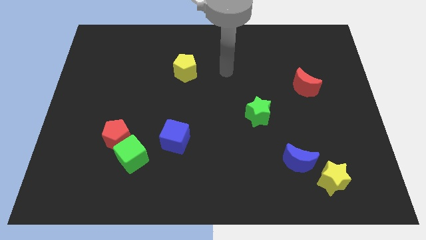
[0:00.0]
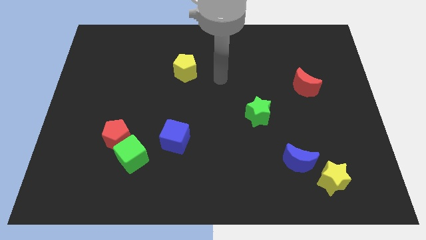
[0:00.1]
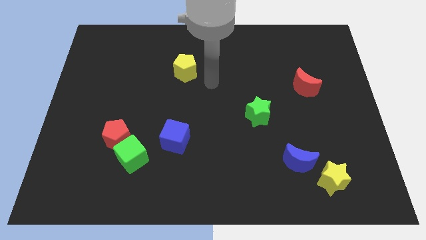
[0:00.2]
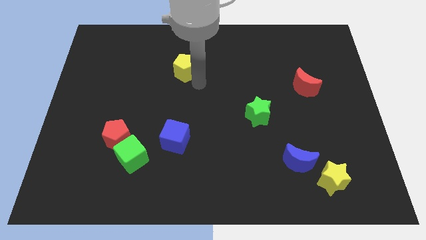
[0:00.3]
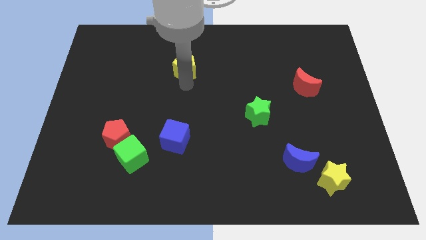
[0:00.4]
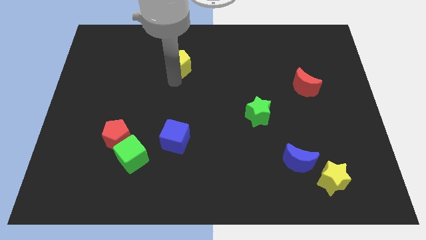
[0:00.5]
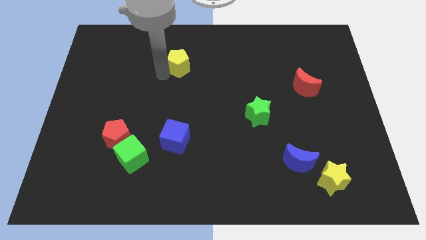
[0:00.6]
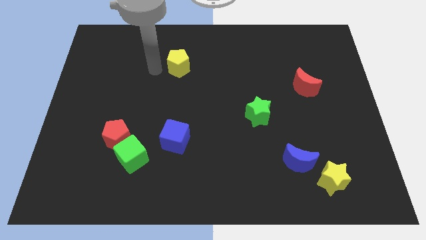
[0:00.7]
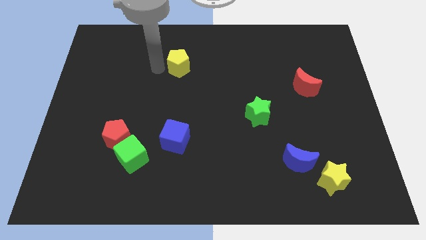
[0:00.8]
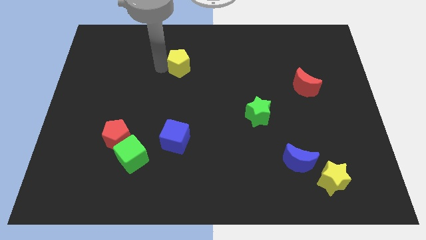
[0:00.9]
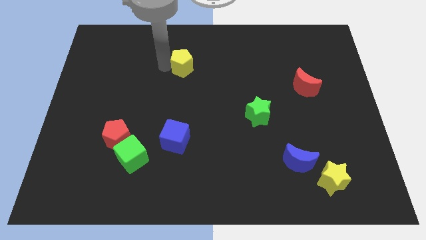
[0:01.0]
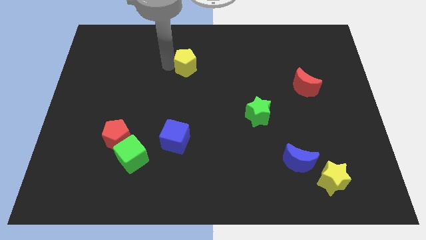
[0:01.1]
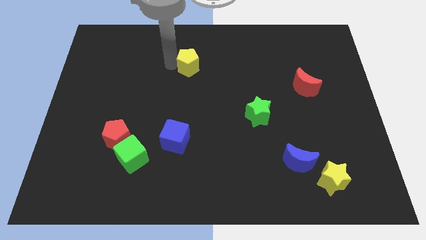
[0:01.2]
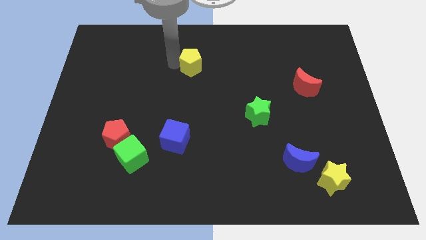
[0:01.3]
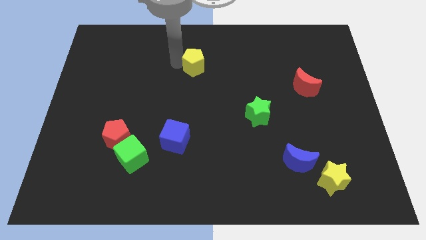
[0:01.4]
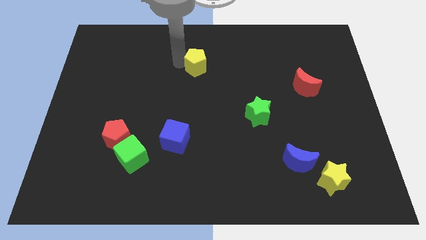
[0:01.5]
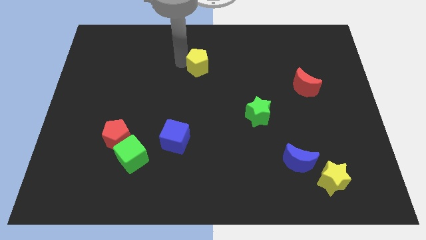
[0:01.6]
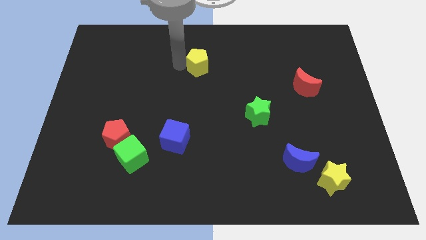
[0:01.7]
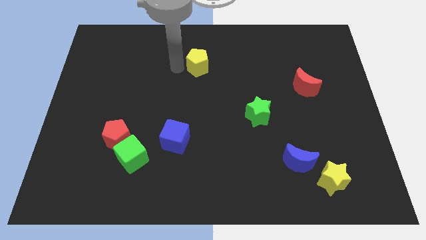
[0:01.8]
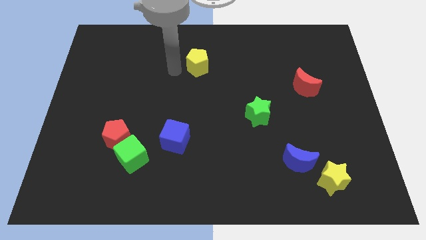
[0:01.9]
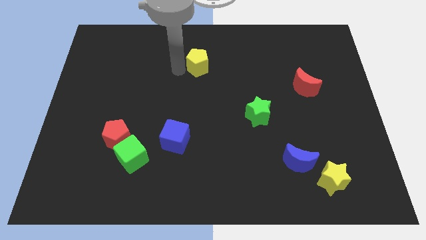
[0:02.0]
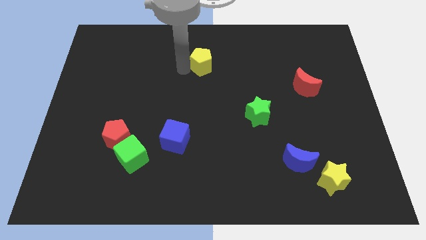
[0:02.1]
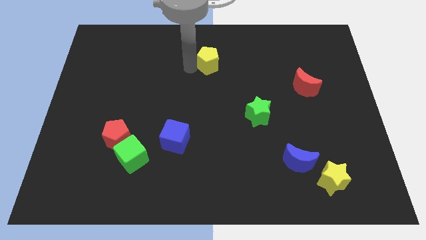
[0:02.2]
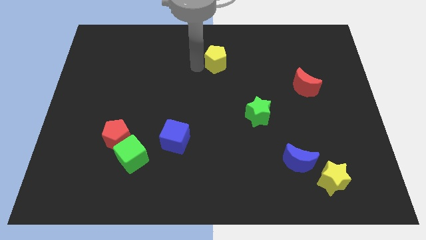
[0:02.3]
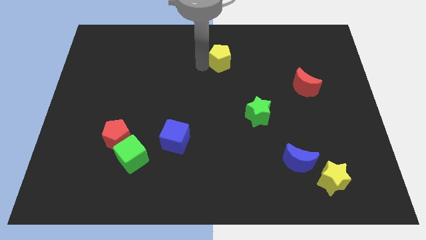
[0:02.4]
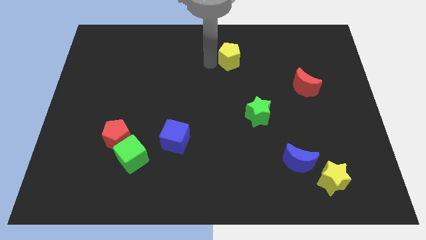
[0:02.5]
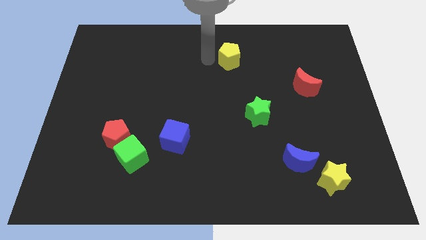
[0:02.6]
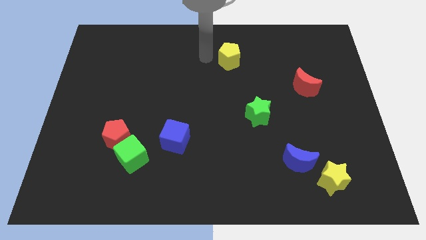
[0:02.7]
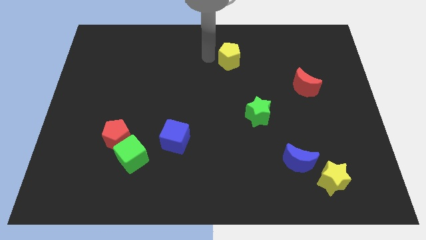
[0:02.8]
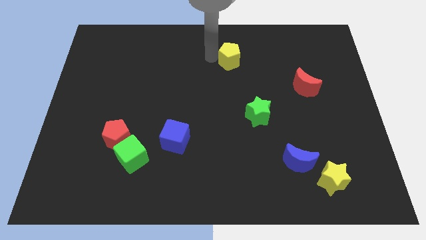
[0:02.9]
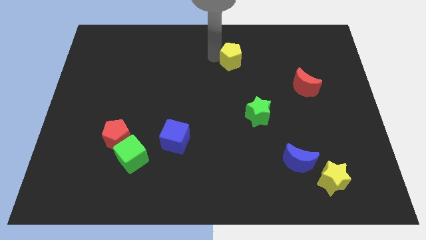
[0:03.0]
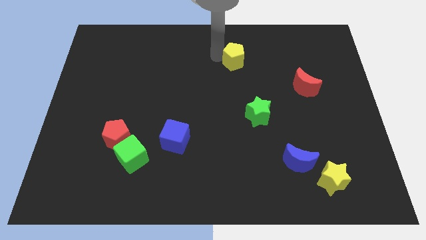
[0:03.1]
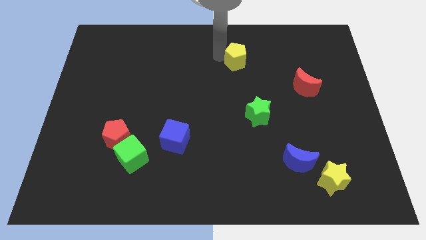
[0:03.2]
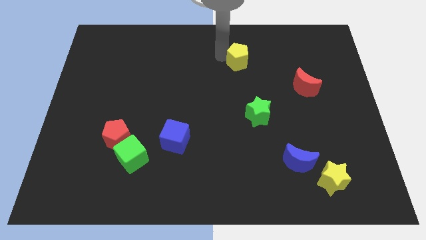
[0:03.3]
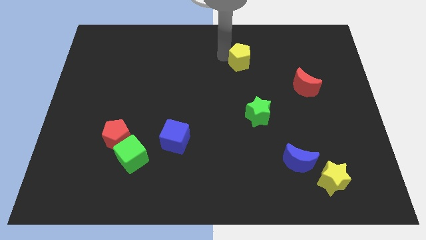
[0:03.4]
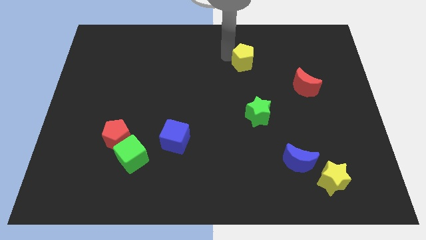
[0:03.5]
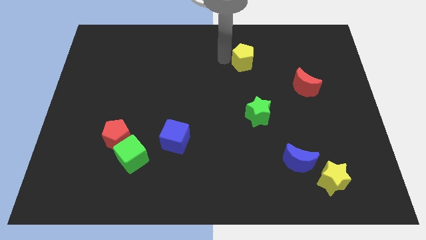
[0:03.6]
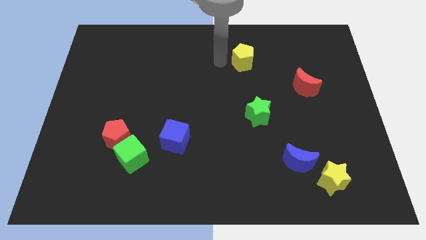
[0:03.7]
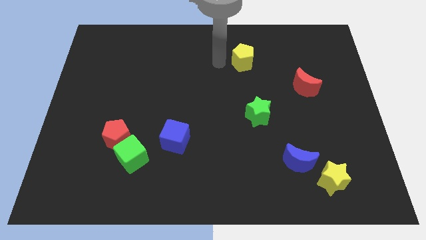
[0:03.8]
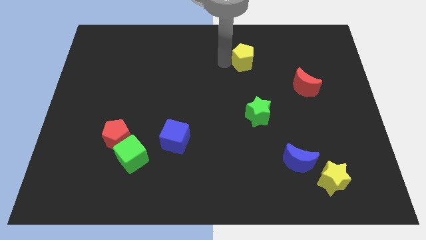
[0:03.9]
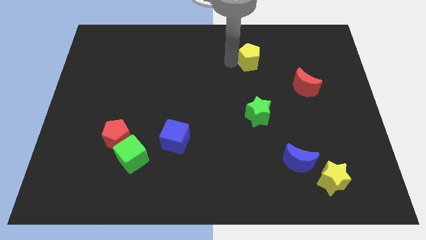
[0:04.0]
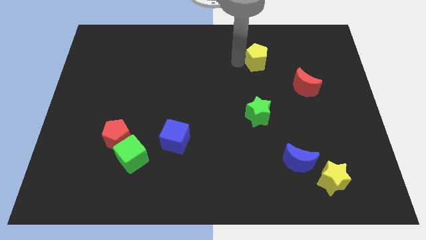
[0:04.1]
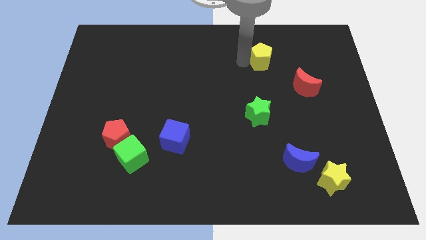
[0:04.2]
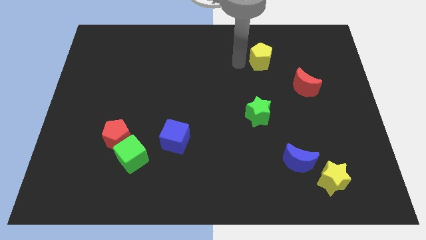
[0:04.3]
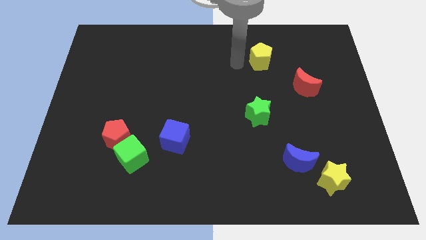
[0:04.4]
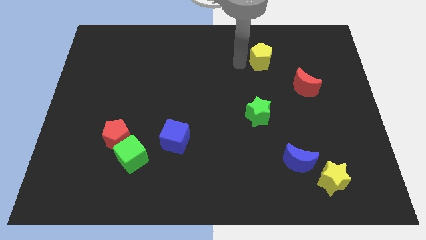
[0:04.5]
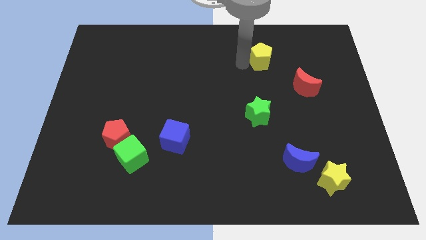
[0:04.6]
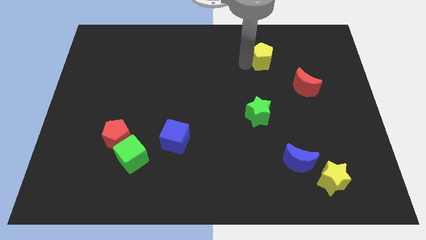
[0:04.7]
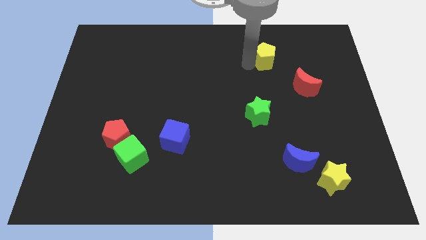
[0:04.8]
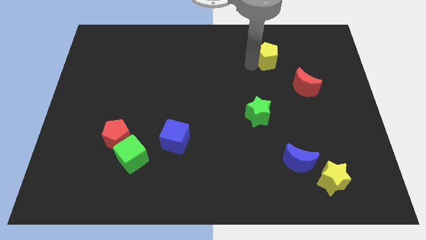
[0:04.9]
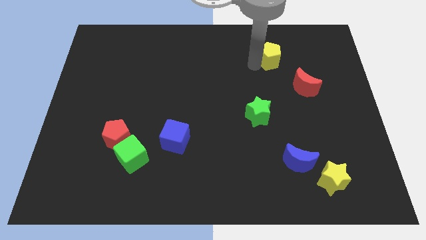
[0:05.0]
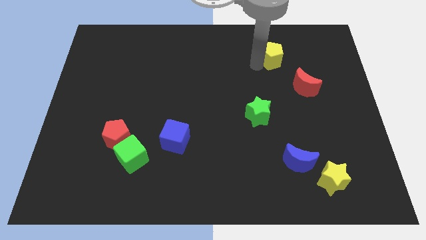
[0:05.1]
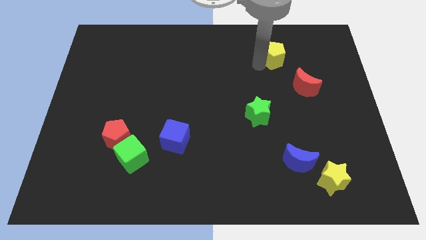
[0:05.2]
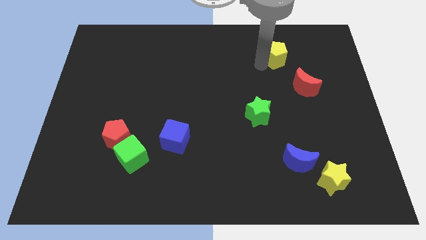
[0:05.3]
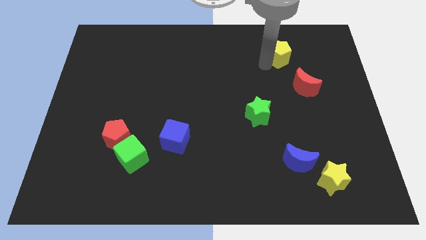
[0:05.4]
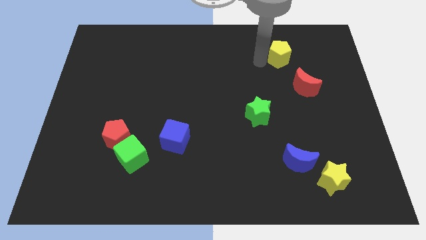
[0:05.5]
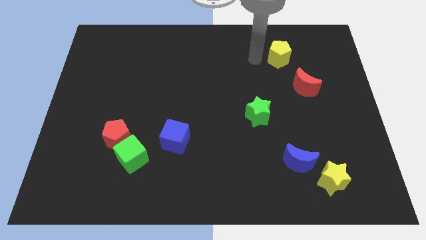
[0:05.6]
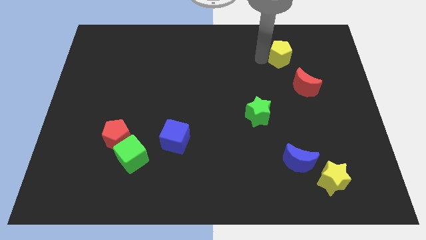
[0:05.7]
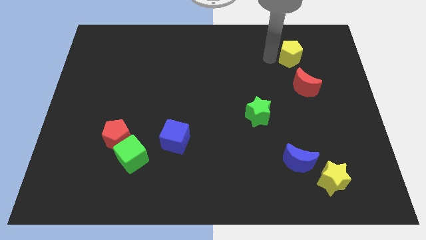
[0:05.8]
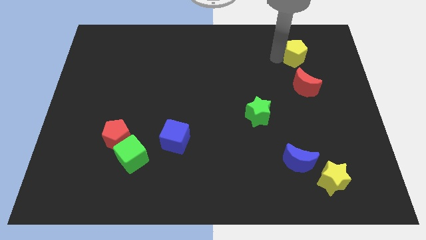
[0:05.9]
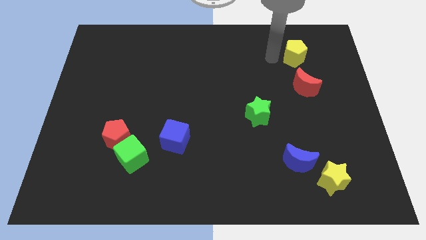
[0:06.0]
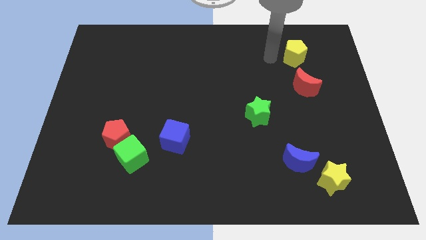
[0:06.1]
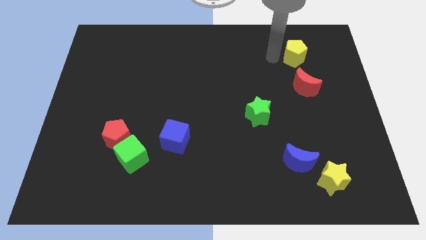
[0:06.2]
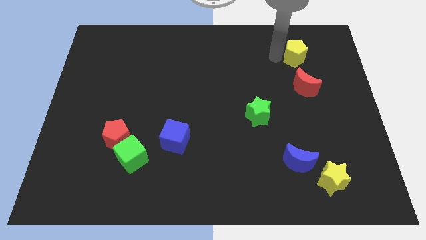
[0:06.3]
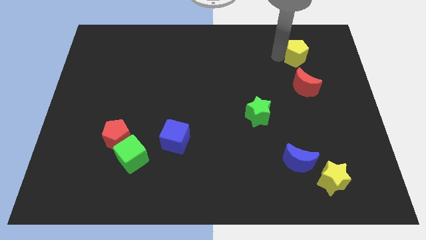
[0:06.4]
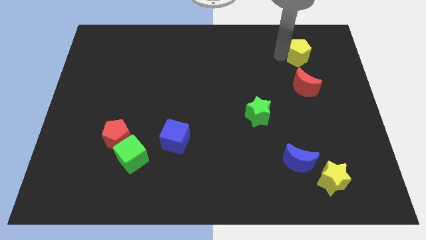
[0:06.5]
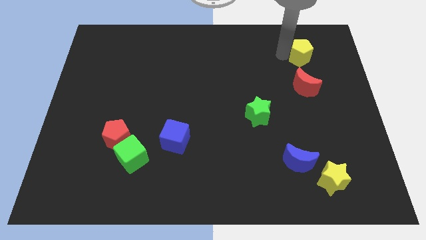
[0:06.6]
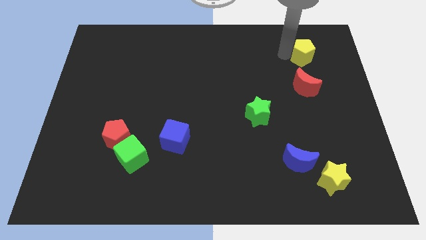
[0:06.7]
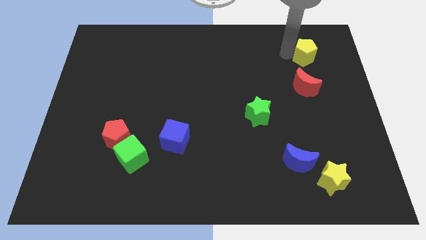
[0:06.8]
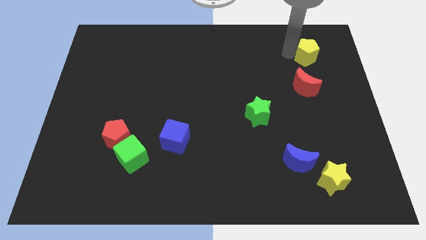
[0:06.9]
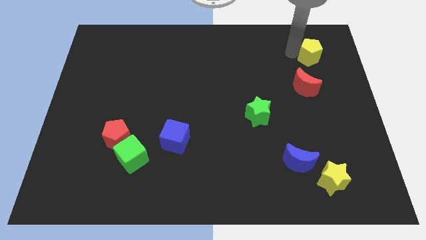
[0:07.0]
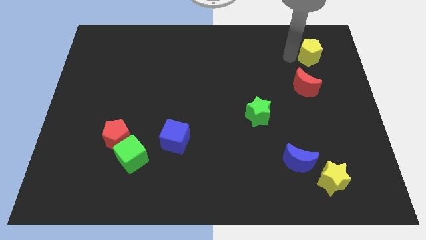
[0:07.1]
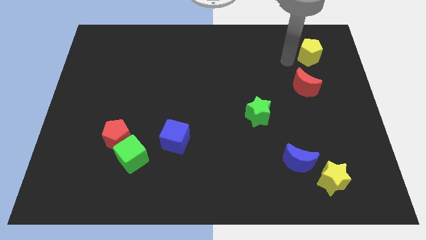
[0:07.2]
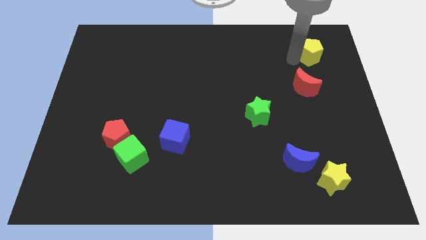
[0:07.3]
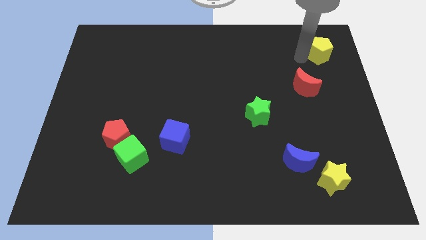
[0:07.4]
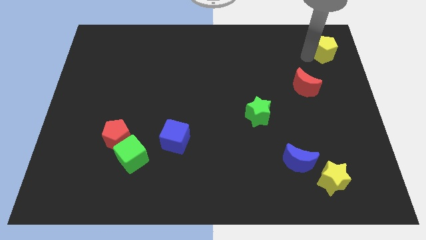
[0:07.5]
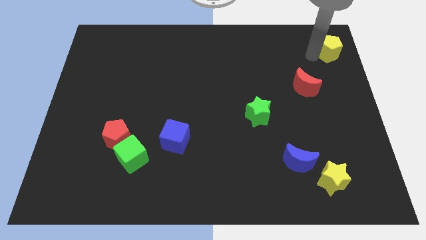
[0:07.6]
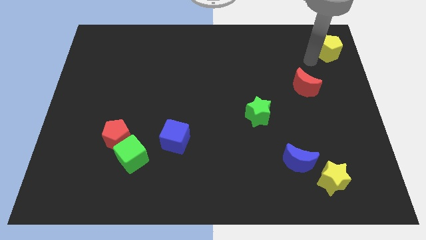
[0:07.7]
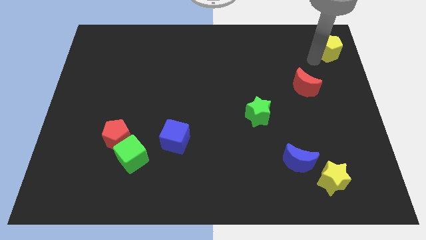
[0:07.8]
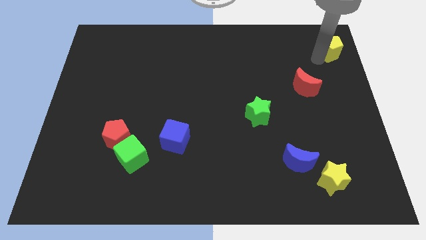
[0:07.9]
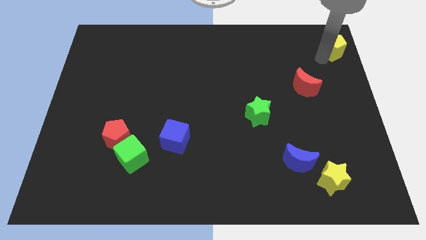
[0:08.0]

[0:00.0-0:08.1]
push the yellow pentagon to the top right of the board

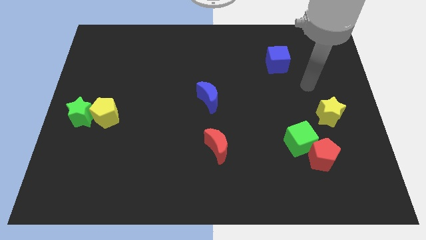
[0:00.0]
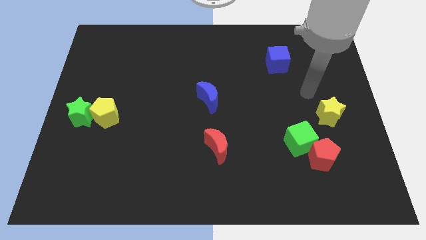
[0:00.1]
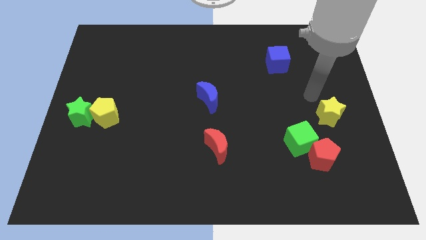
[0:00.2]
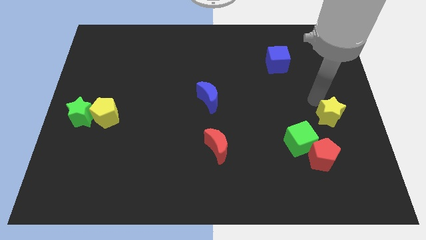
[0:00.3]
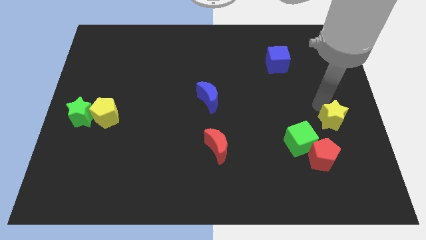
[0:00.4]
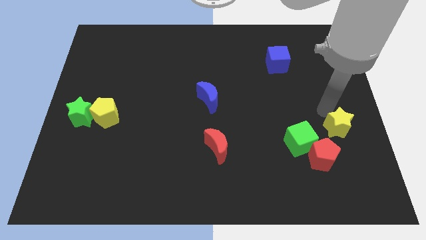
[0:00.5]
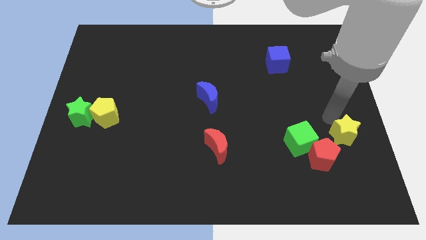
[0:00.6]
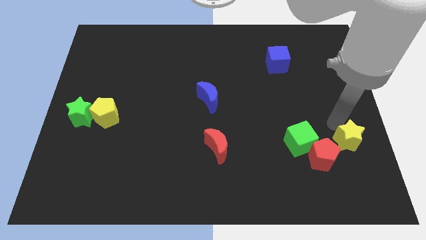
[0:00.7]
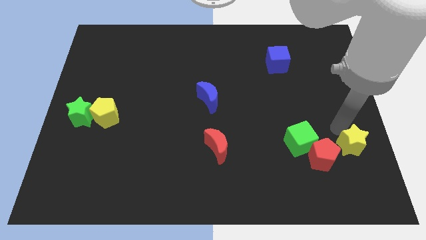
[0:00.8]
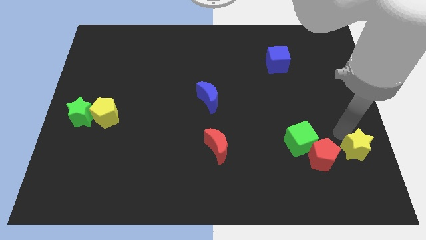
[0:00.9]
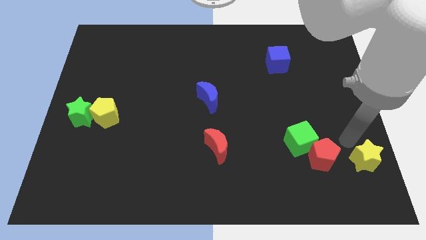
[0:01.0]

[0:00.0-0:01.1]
slide the yellow star to the bottom right corner
